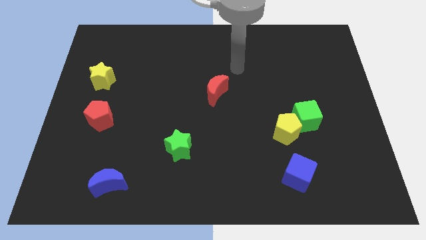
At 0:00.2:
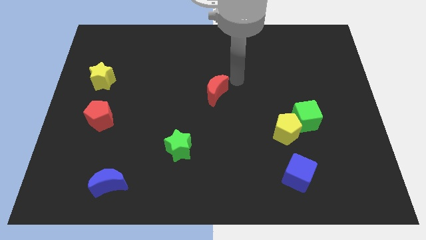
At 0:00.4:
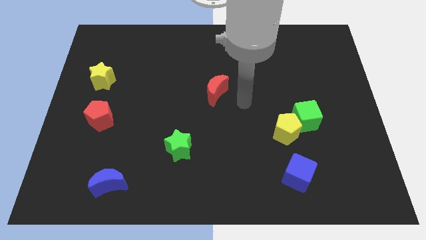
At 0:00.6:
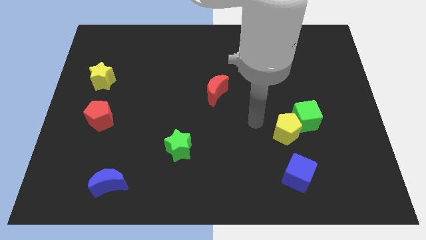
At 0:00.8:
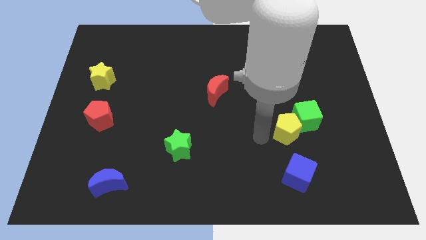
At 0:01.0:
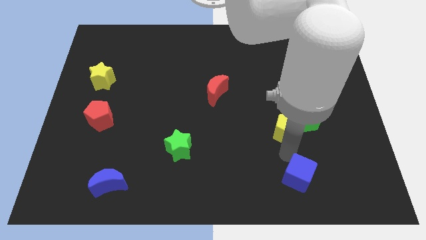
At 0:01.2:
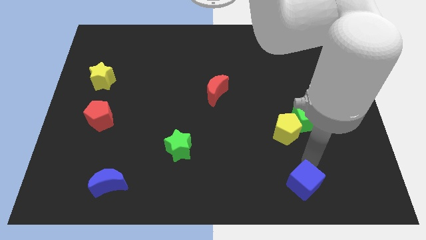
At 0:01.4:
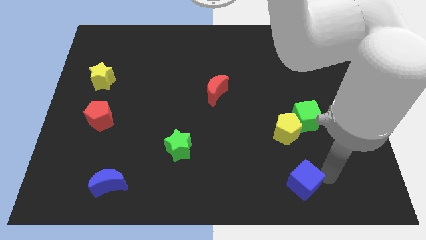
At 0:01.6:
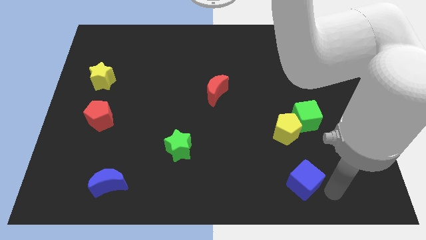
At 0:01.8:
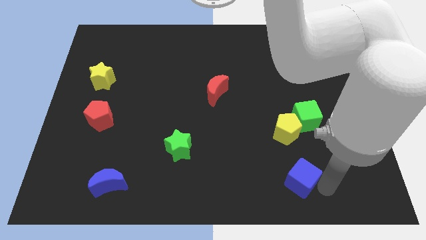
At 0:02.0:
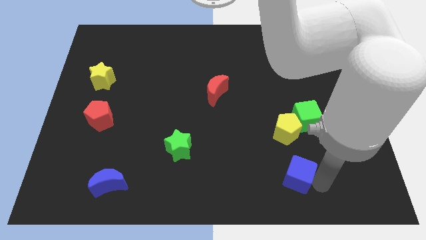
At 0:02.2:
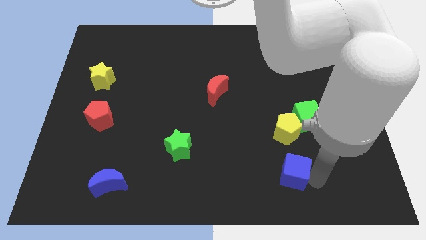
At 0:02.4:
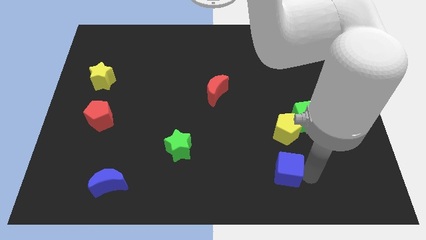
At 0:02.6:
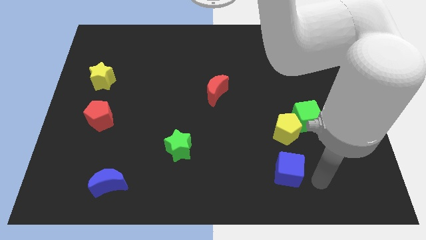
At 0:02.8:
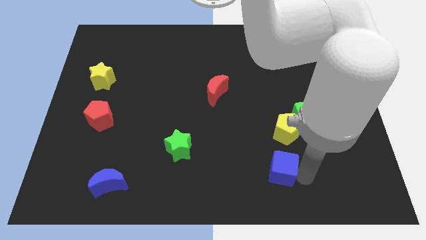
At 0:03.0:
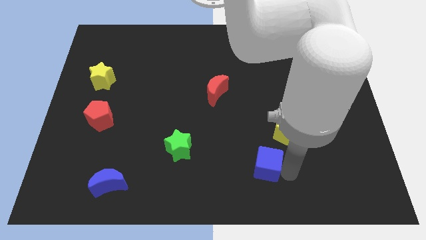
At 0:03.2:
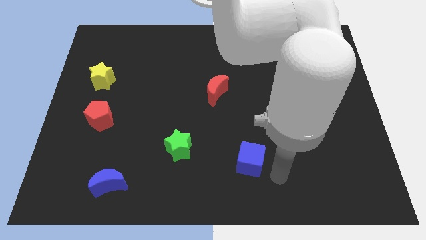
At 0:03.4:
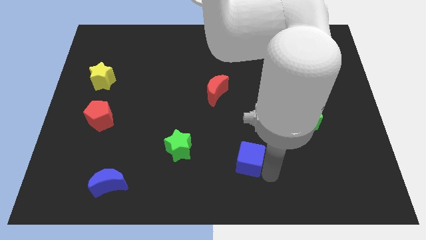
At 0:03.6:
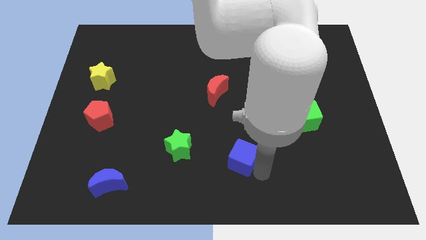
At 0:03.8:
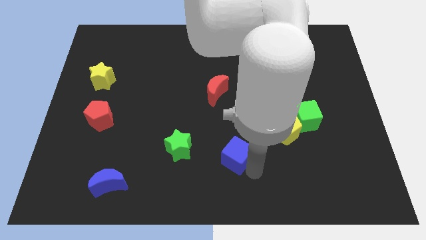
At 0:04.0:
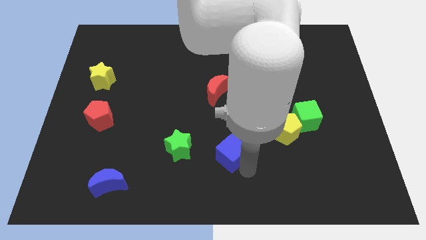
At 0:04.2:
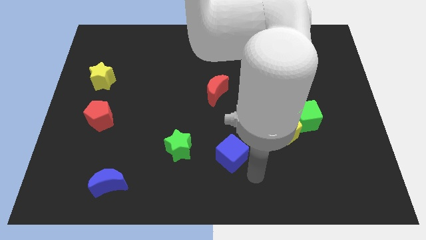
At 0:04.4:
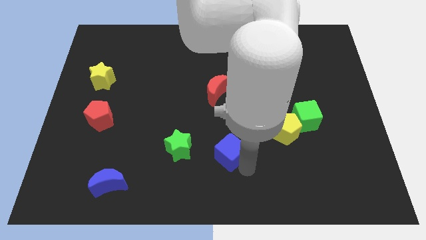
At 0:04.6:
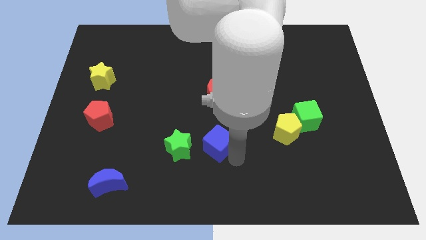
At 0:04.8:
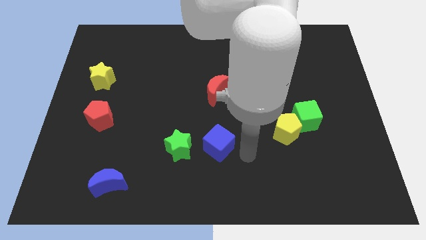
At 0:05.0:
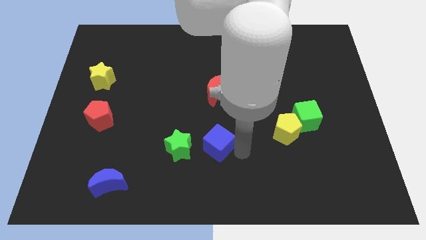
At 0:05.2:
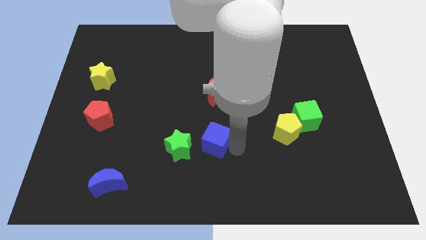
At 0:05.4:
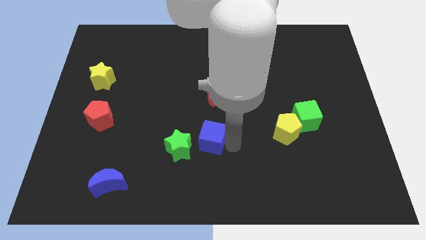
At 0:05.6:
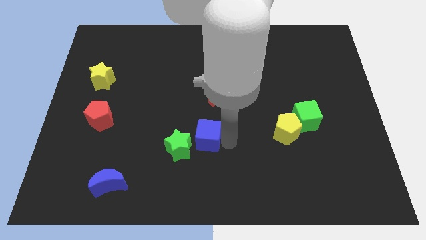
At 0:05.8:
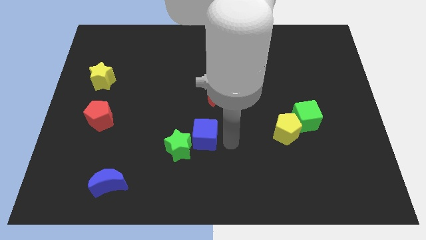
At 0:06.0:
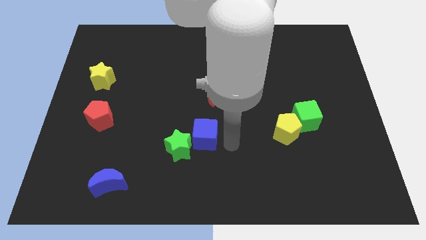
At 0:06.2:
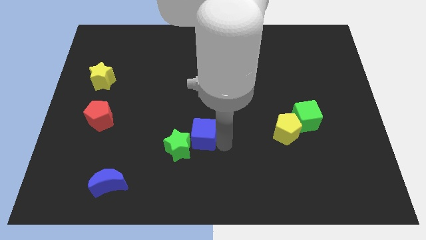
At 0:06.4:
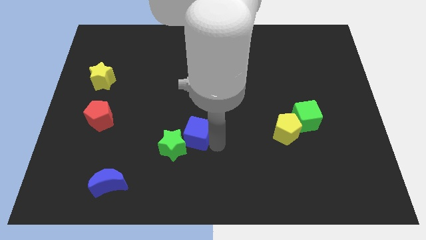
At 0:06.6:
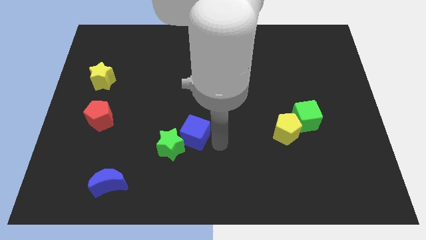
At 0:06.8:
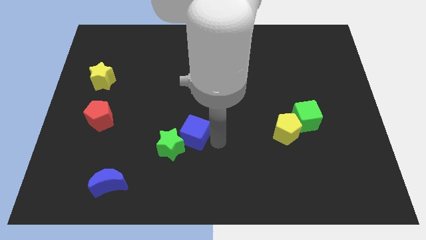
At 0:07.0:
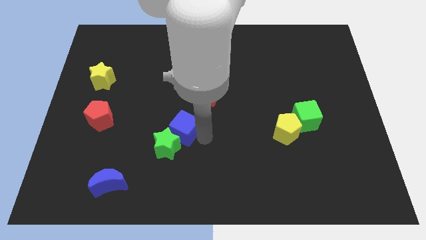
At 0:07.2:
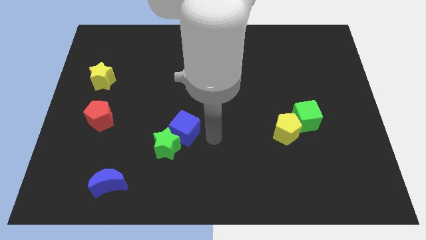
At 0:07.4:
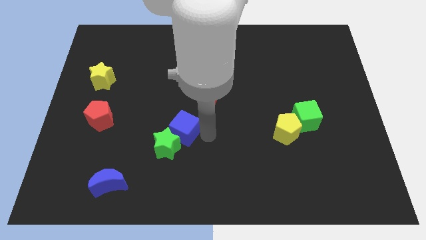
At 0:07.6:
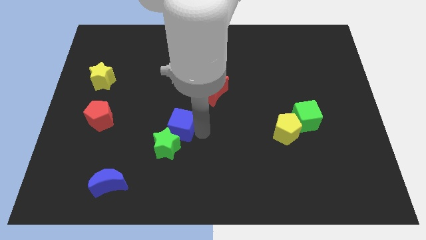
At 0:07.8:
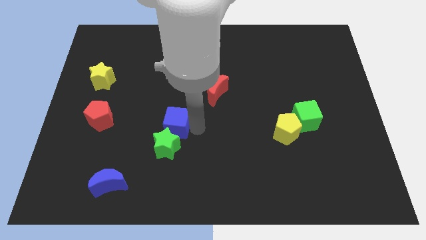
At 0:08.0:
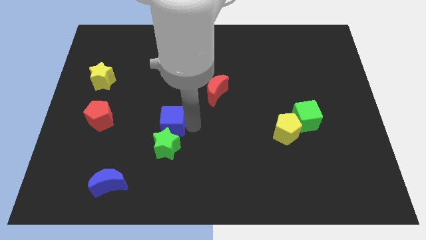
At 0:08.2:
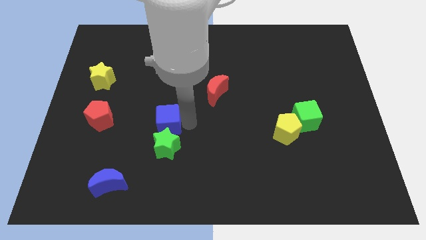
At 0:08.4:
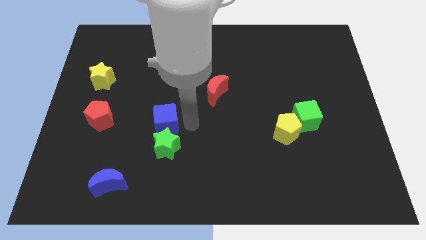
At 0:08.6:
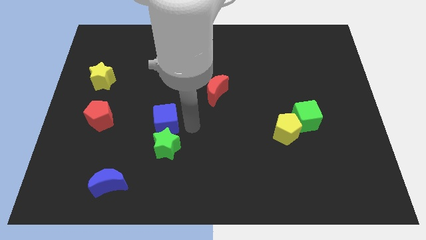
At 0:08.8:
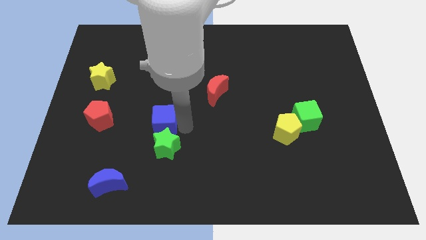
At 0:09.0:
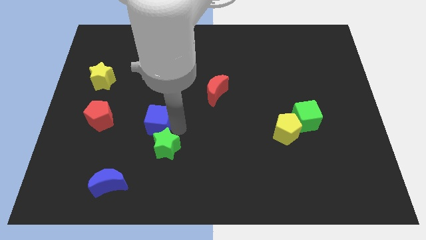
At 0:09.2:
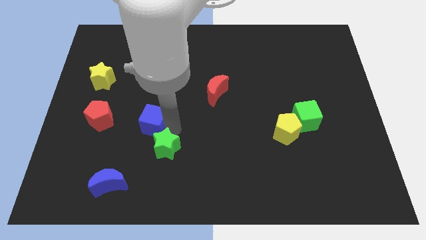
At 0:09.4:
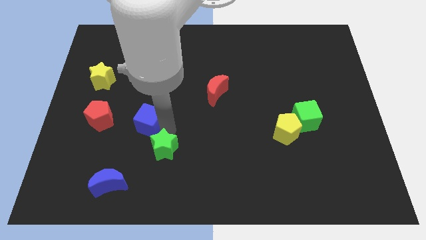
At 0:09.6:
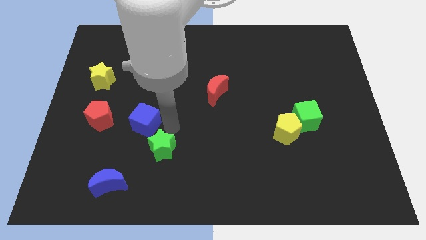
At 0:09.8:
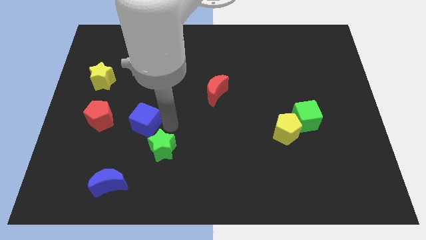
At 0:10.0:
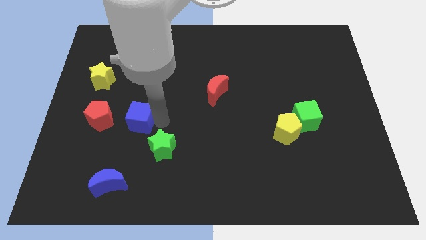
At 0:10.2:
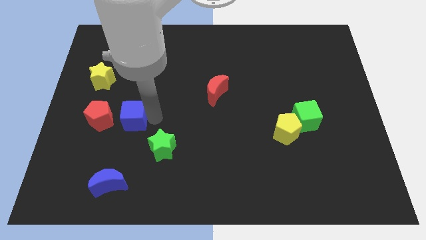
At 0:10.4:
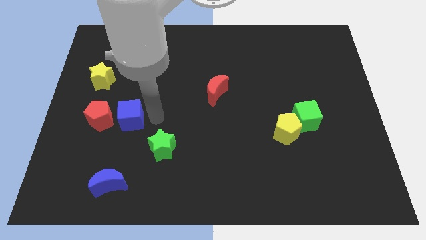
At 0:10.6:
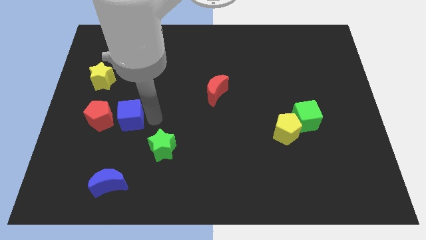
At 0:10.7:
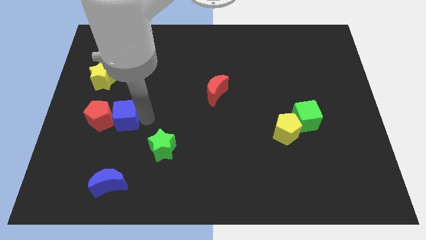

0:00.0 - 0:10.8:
push the blue cube towards the red pentagon

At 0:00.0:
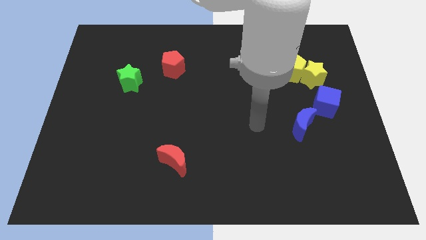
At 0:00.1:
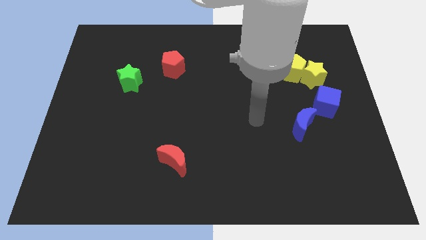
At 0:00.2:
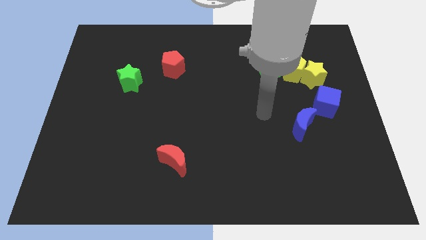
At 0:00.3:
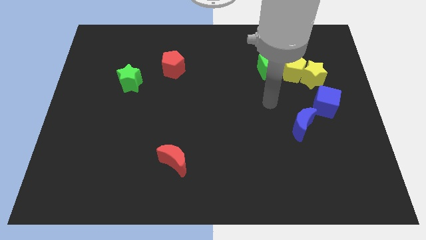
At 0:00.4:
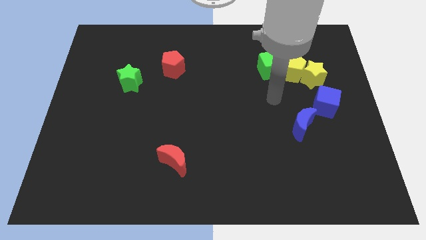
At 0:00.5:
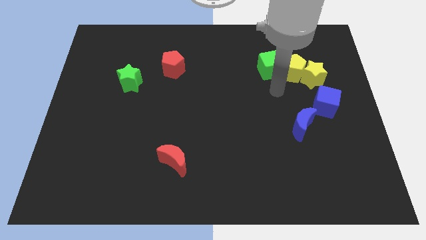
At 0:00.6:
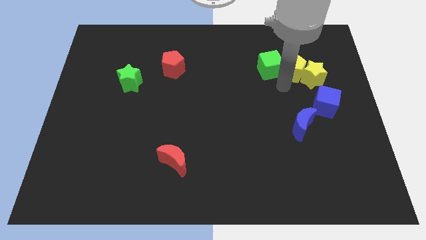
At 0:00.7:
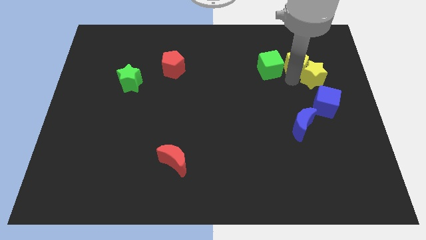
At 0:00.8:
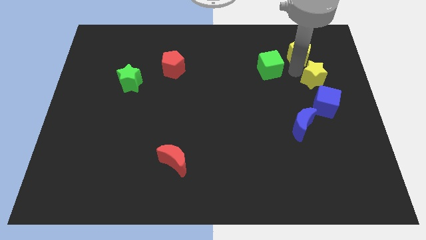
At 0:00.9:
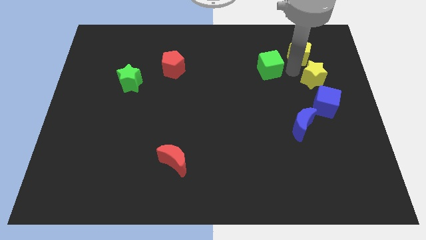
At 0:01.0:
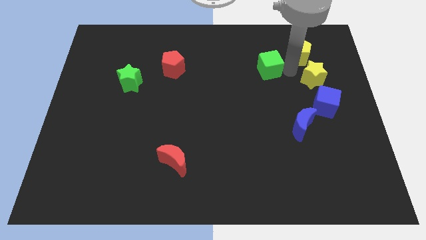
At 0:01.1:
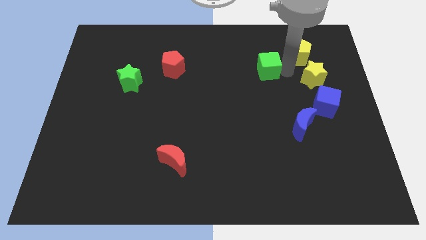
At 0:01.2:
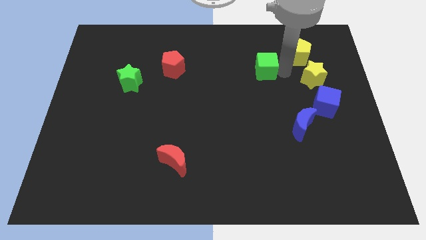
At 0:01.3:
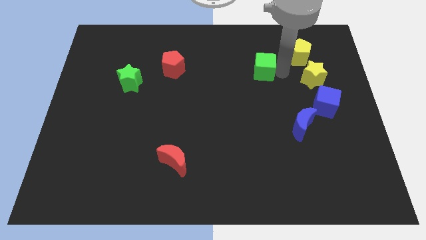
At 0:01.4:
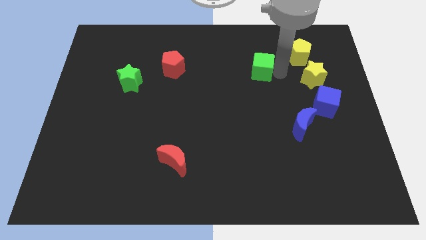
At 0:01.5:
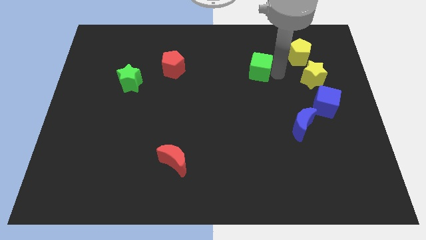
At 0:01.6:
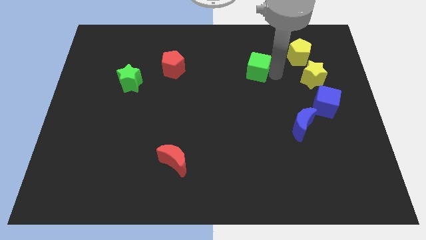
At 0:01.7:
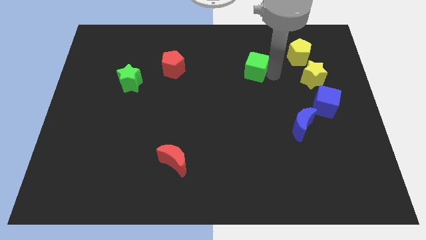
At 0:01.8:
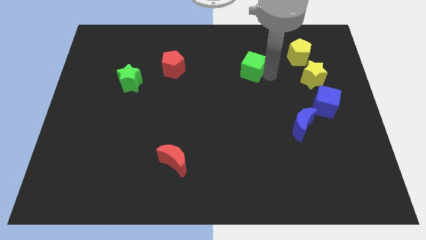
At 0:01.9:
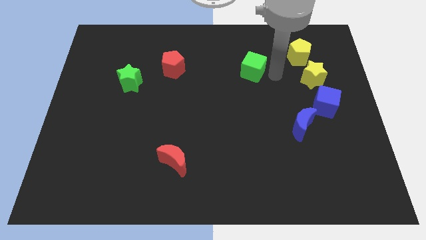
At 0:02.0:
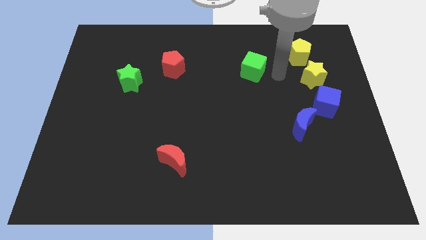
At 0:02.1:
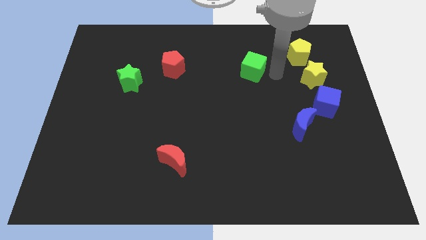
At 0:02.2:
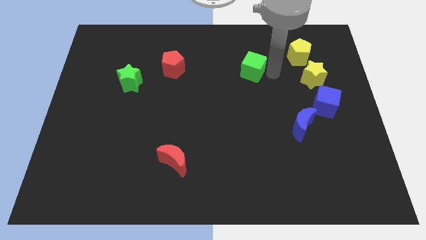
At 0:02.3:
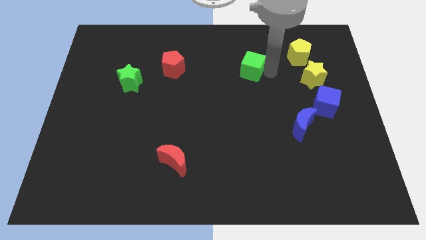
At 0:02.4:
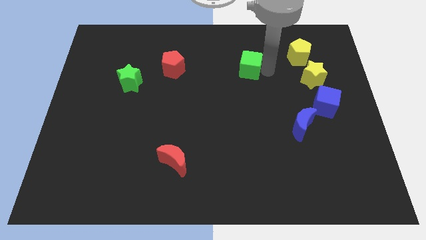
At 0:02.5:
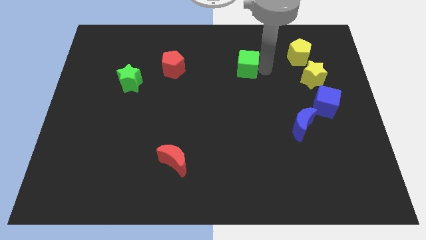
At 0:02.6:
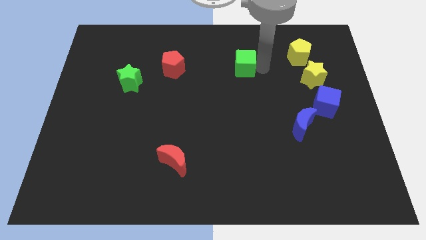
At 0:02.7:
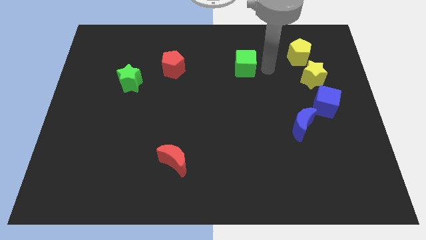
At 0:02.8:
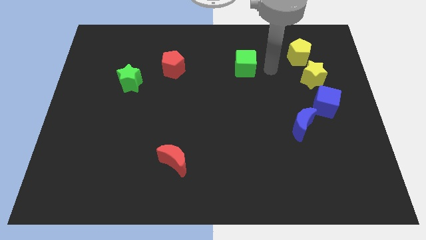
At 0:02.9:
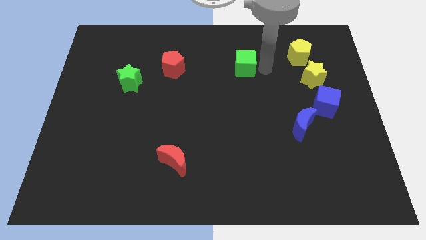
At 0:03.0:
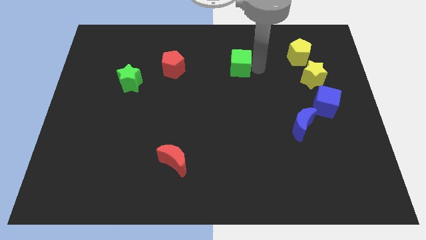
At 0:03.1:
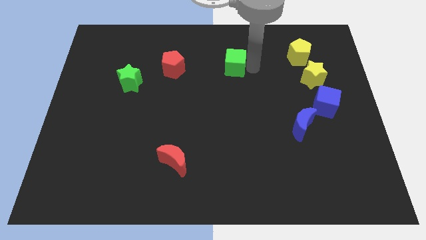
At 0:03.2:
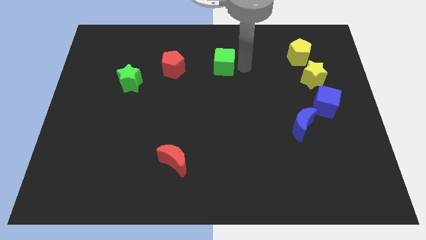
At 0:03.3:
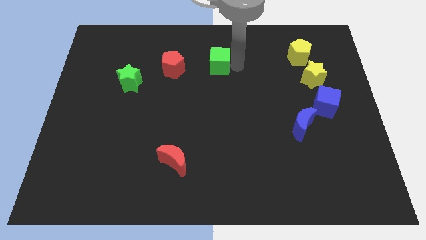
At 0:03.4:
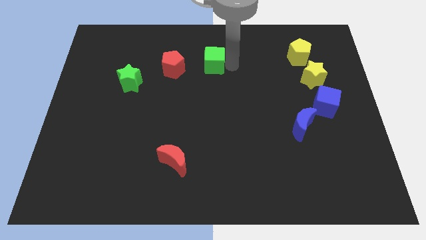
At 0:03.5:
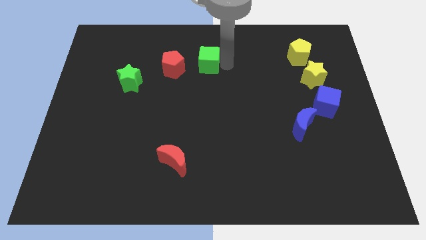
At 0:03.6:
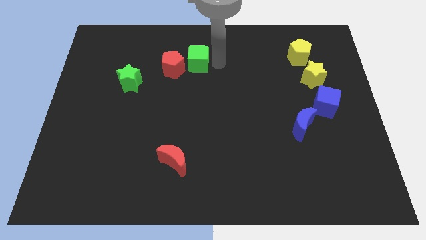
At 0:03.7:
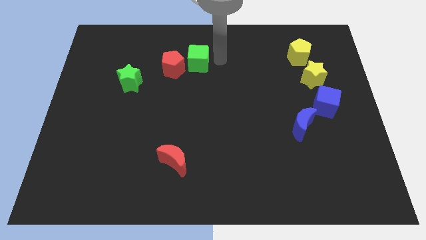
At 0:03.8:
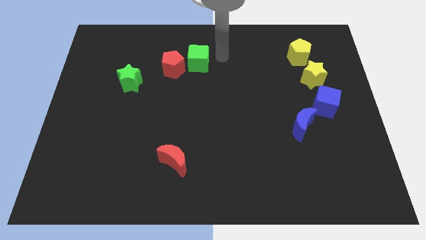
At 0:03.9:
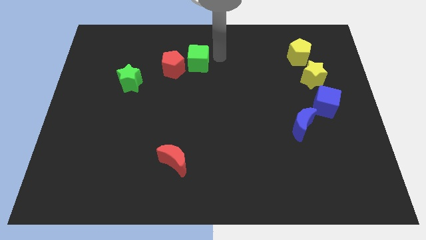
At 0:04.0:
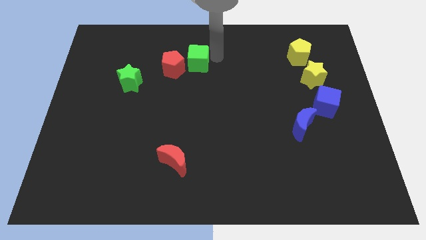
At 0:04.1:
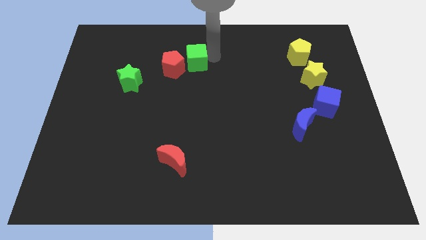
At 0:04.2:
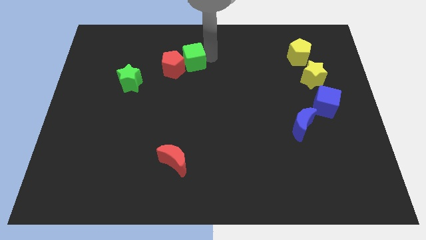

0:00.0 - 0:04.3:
put the green cube to the red pentagon
